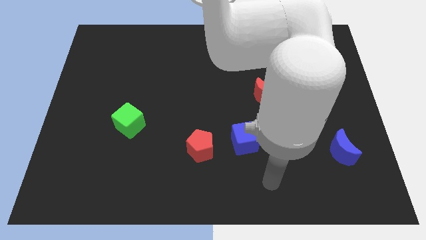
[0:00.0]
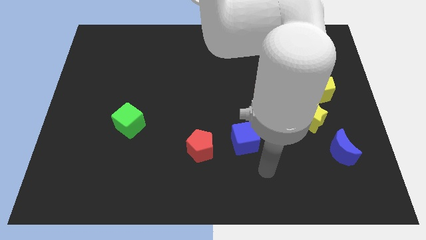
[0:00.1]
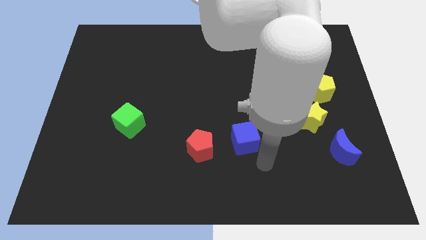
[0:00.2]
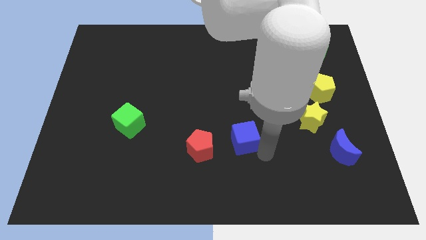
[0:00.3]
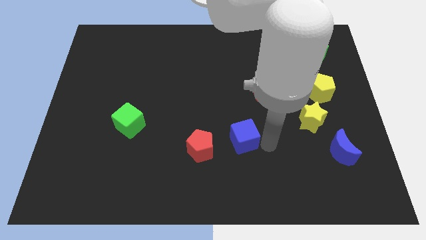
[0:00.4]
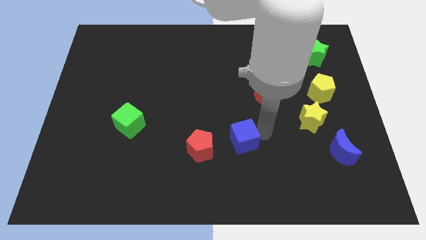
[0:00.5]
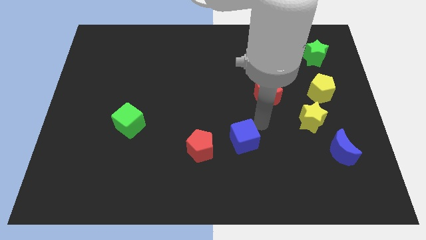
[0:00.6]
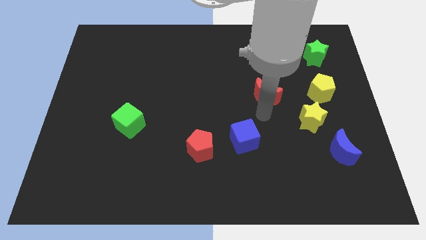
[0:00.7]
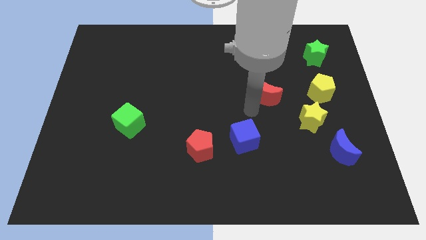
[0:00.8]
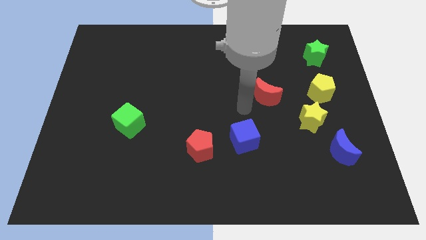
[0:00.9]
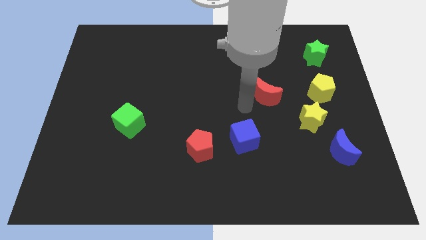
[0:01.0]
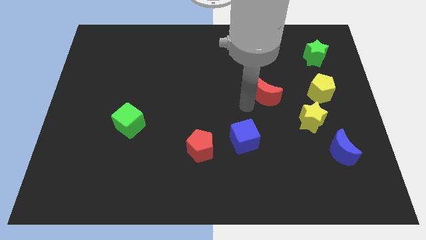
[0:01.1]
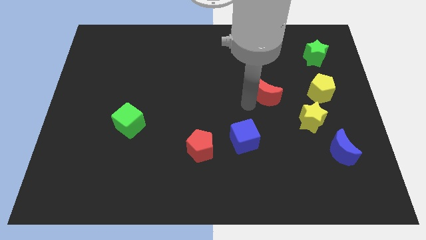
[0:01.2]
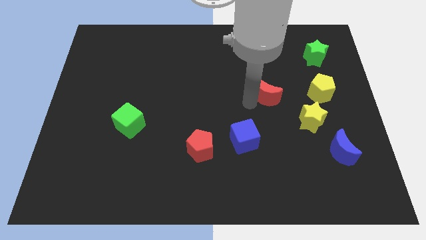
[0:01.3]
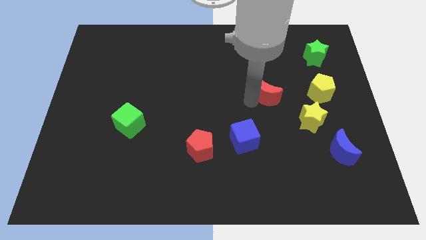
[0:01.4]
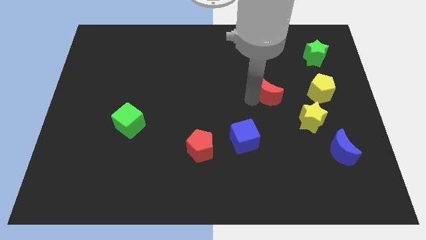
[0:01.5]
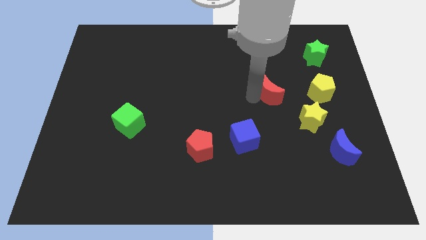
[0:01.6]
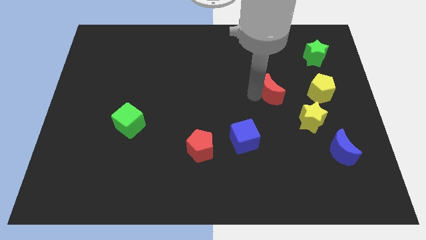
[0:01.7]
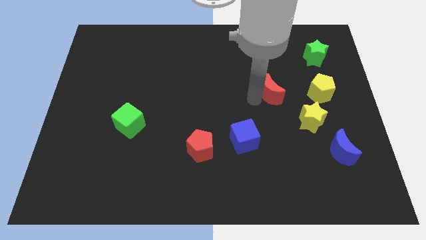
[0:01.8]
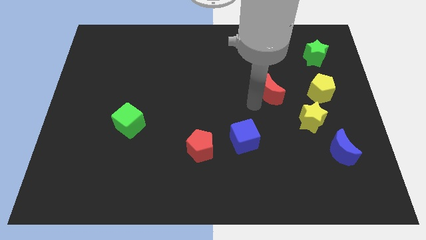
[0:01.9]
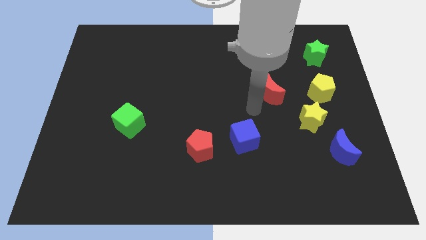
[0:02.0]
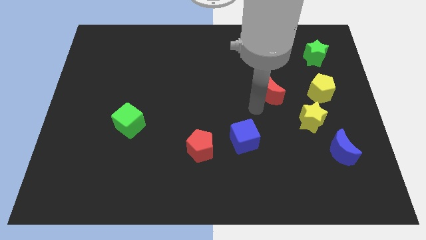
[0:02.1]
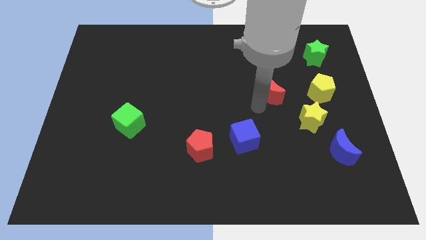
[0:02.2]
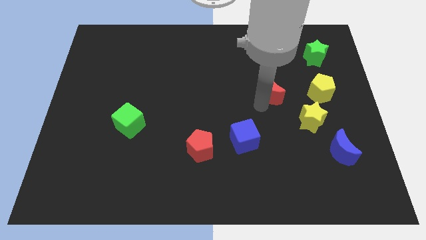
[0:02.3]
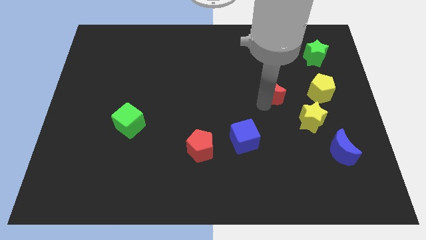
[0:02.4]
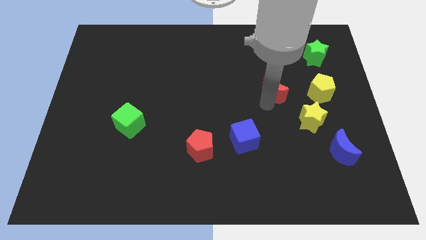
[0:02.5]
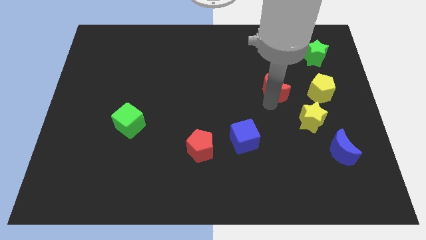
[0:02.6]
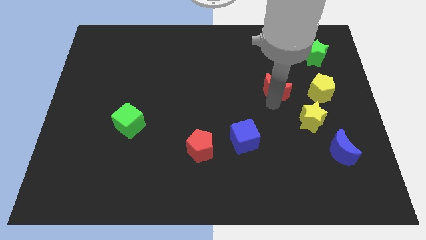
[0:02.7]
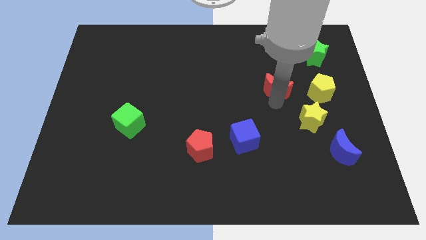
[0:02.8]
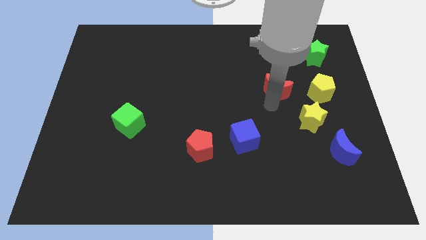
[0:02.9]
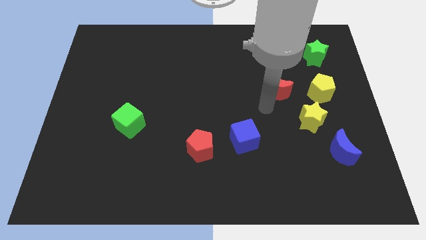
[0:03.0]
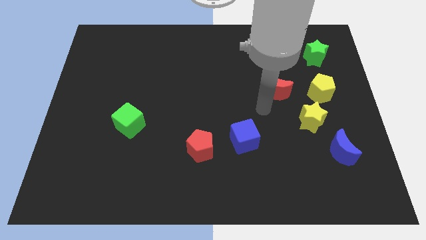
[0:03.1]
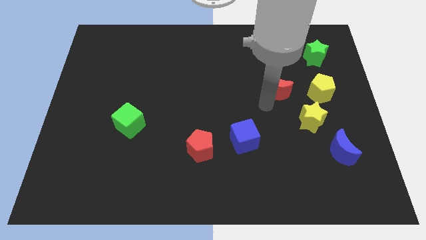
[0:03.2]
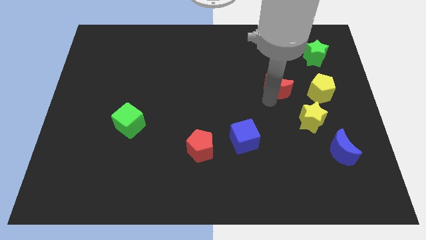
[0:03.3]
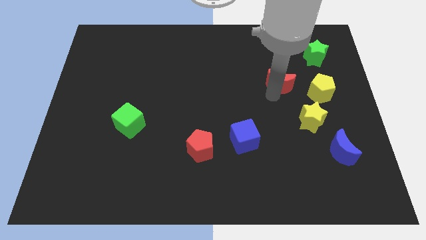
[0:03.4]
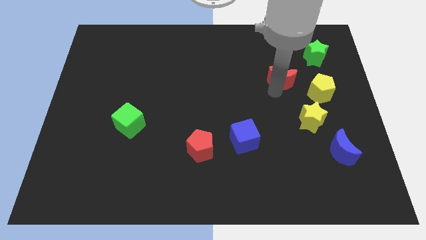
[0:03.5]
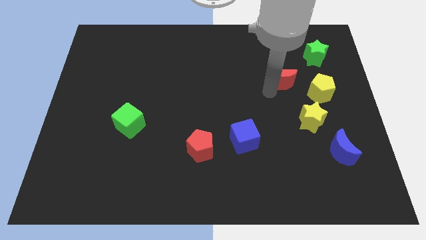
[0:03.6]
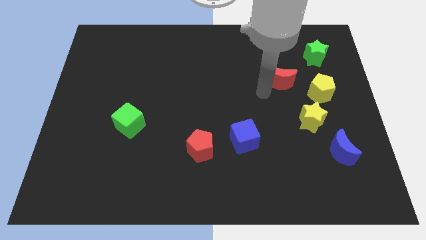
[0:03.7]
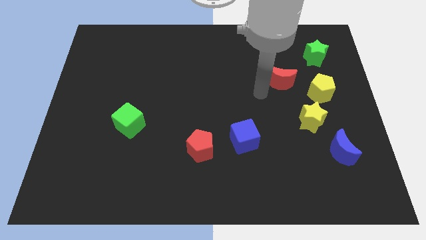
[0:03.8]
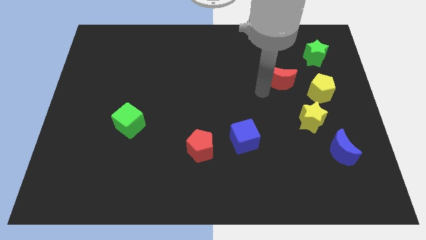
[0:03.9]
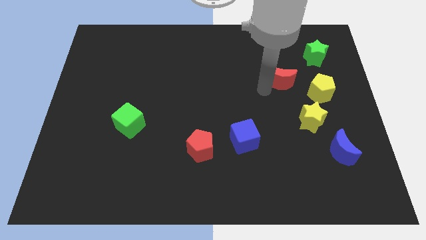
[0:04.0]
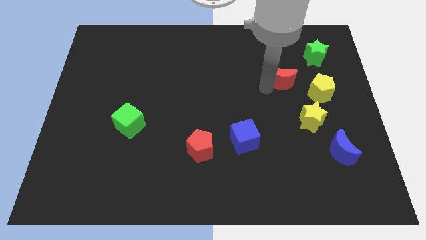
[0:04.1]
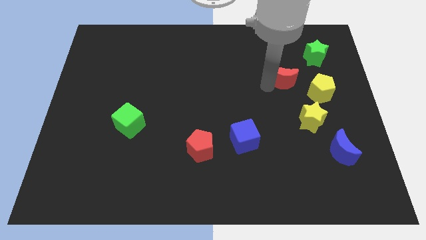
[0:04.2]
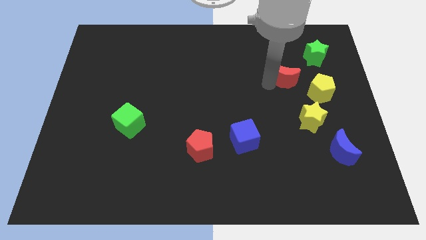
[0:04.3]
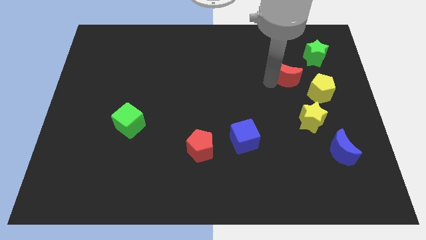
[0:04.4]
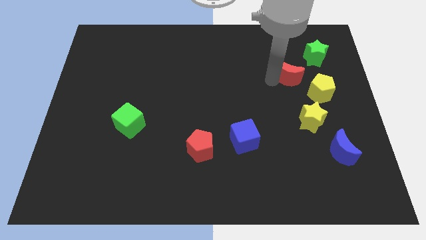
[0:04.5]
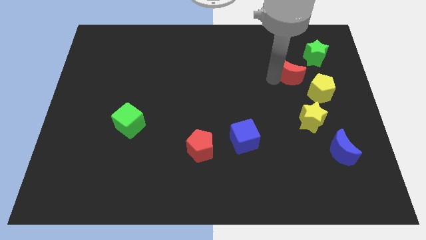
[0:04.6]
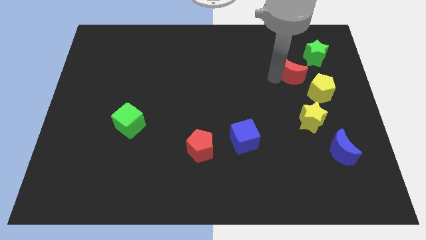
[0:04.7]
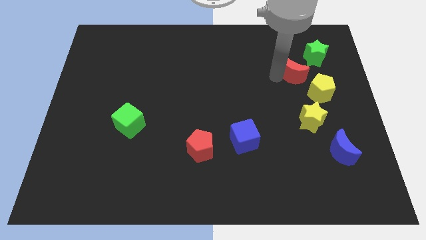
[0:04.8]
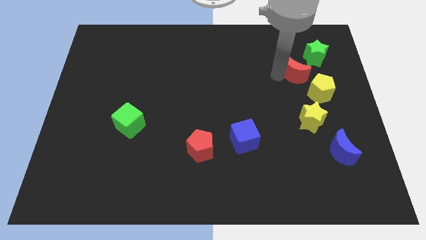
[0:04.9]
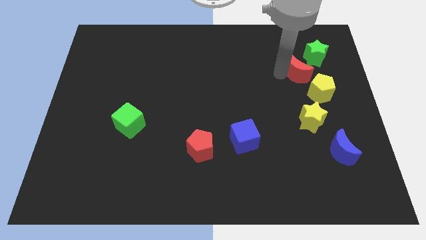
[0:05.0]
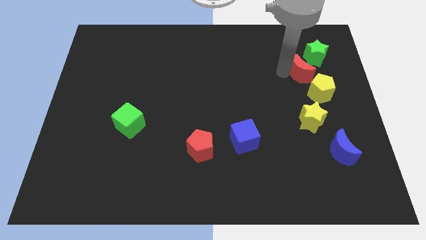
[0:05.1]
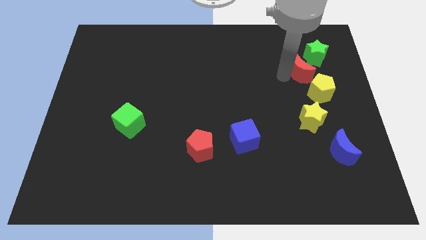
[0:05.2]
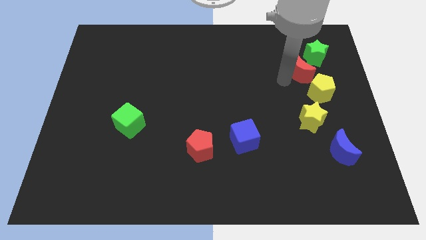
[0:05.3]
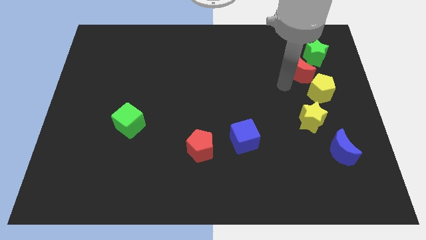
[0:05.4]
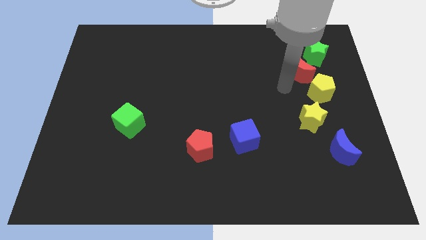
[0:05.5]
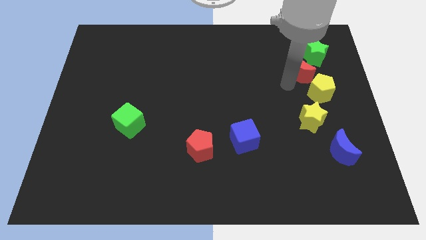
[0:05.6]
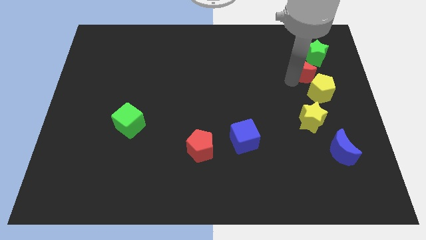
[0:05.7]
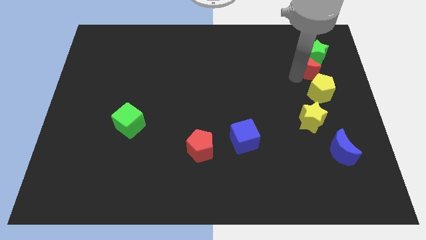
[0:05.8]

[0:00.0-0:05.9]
move the red moon towards the green star
